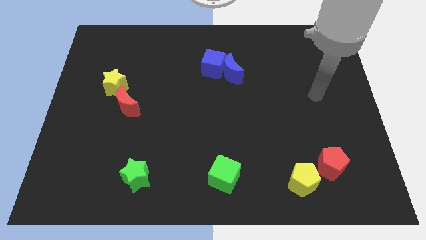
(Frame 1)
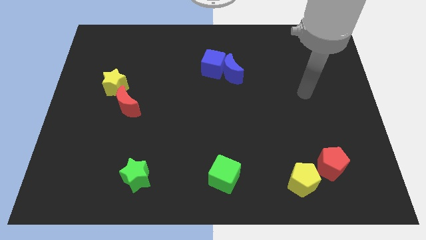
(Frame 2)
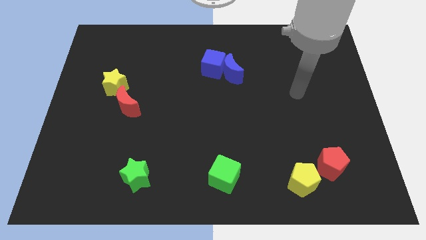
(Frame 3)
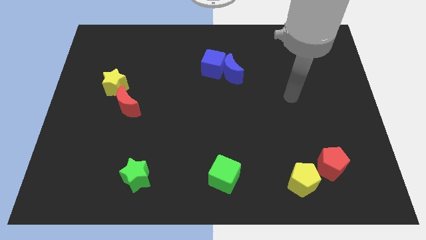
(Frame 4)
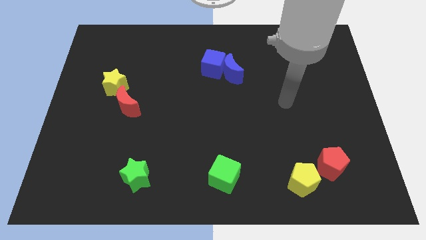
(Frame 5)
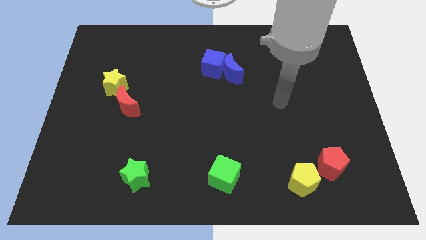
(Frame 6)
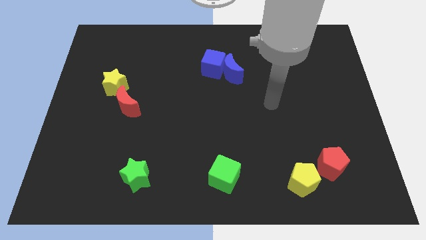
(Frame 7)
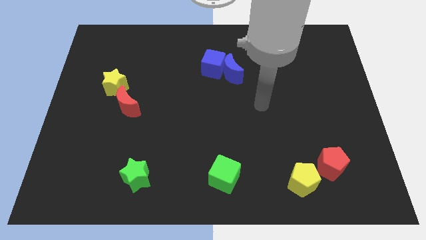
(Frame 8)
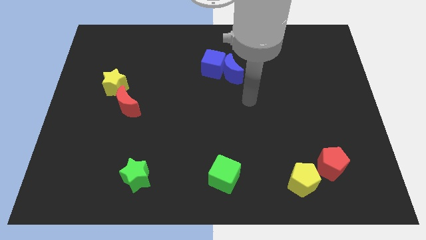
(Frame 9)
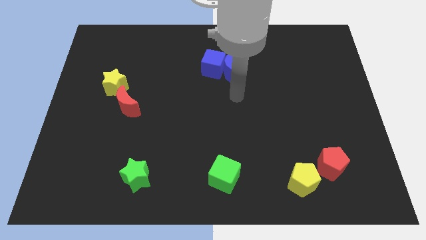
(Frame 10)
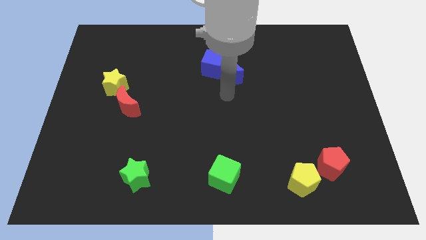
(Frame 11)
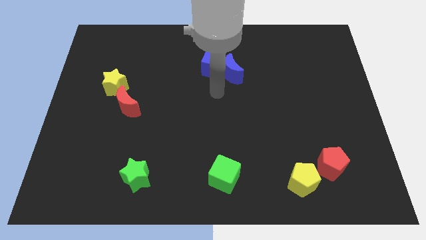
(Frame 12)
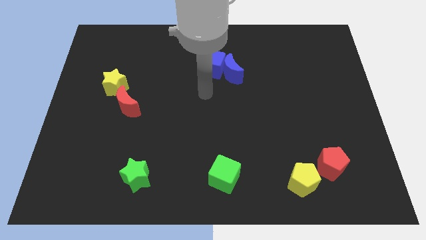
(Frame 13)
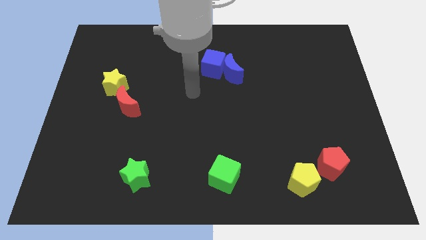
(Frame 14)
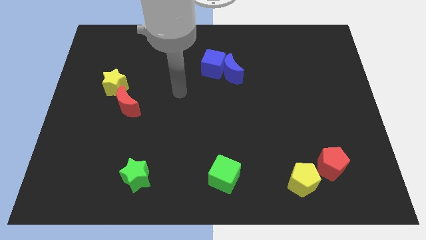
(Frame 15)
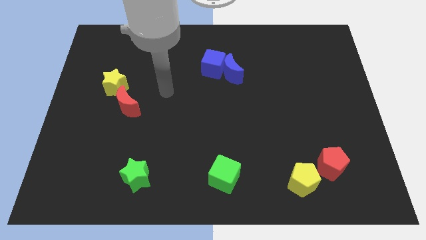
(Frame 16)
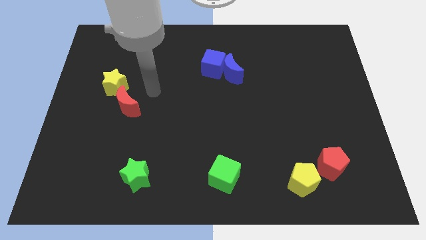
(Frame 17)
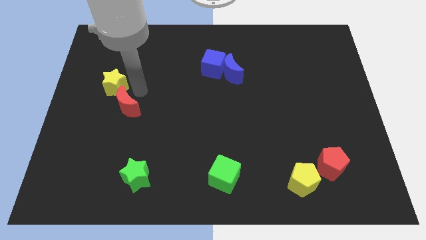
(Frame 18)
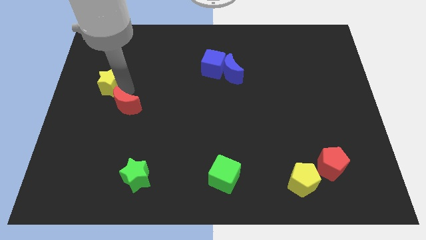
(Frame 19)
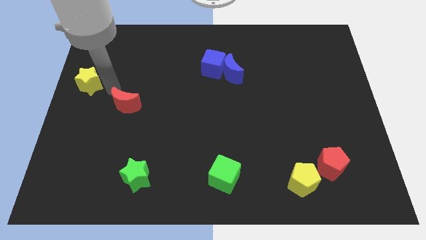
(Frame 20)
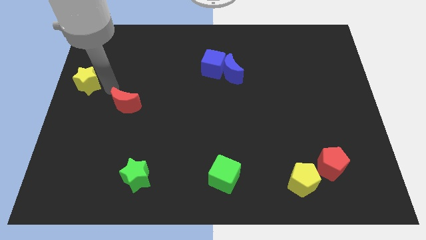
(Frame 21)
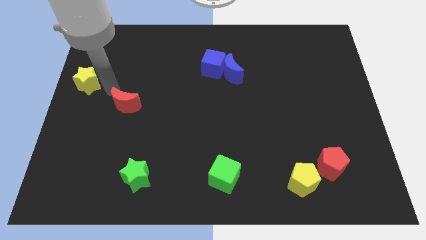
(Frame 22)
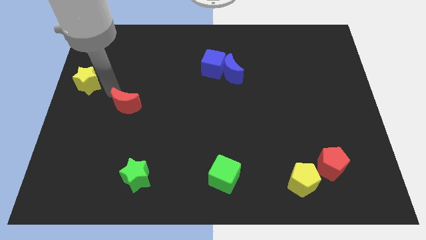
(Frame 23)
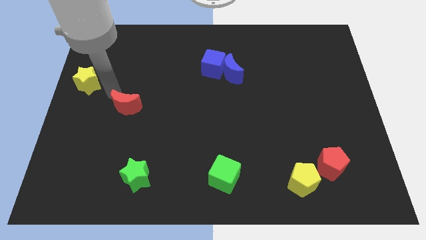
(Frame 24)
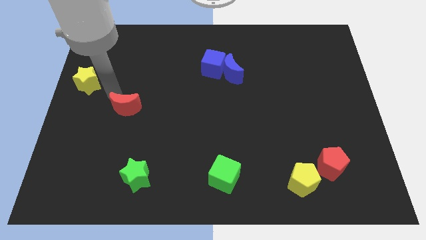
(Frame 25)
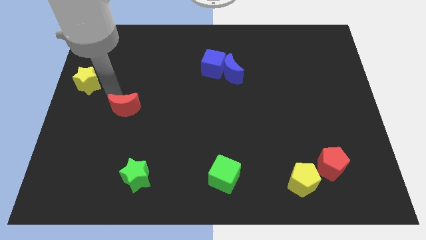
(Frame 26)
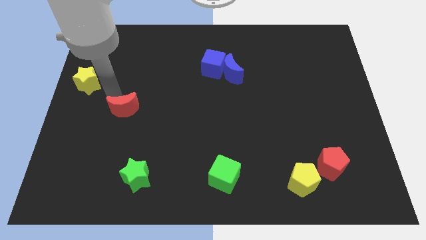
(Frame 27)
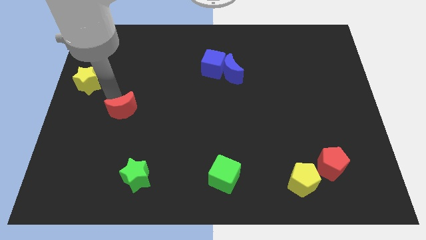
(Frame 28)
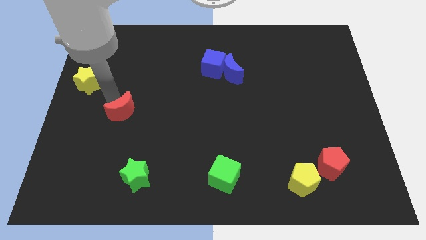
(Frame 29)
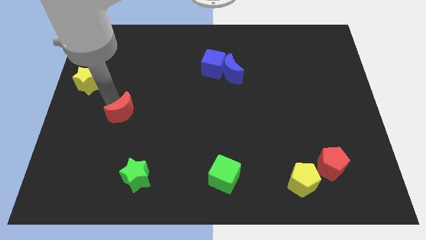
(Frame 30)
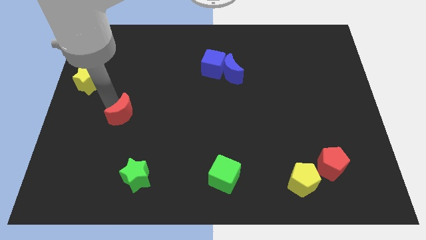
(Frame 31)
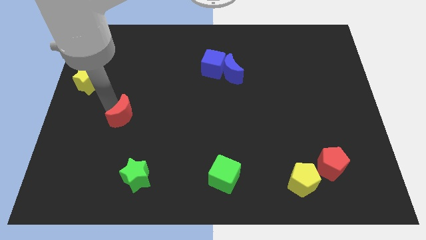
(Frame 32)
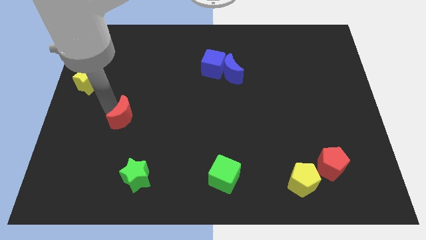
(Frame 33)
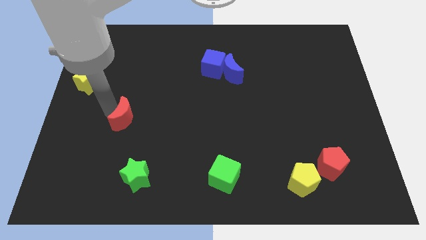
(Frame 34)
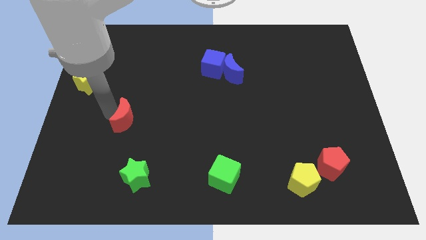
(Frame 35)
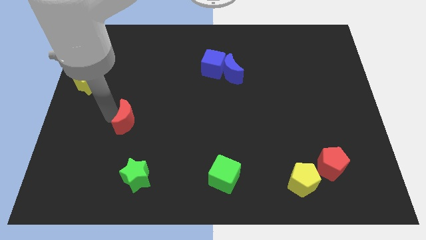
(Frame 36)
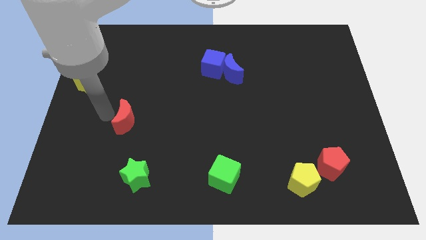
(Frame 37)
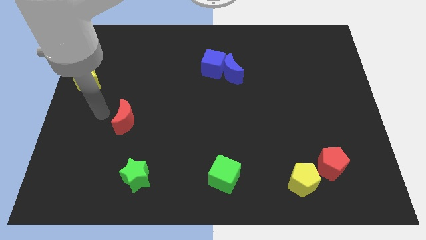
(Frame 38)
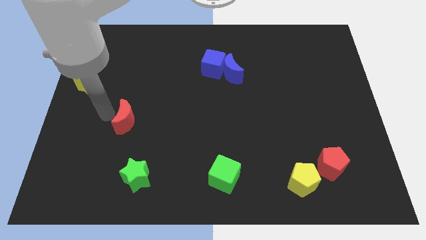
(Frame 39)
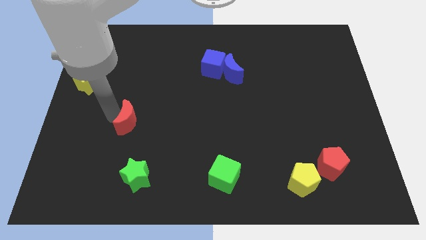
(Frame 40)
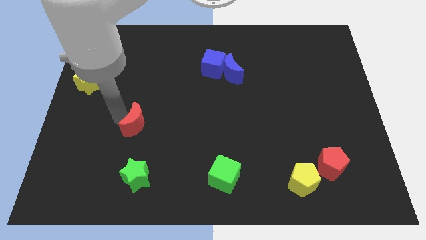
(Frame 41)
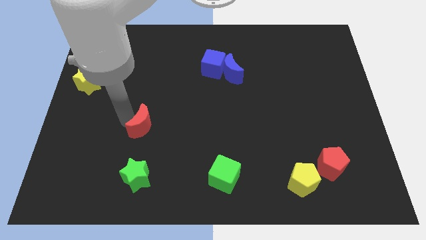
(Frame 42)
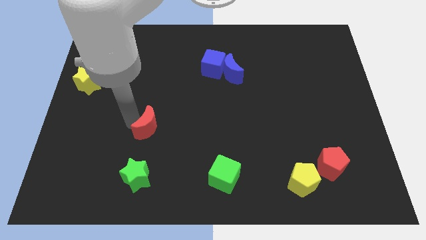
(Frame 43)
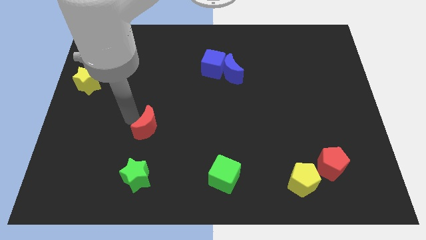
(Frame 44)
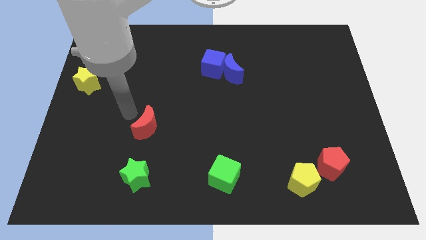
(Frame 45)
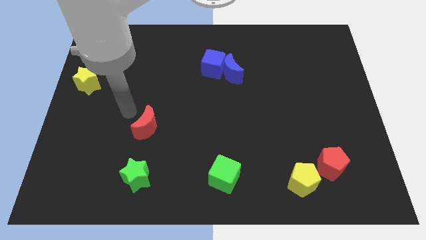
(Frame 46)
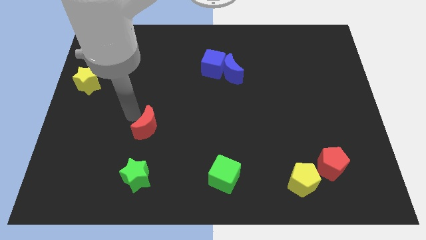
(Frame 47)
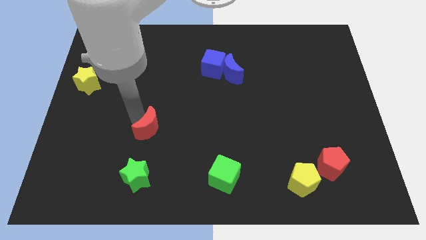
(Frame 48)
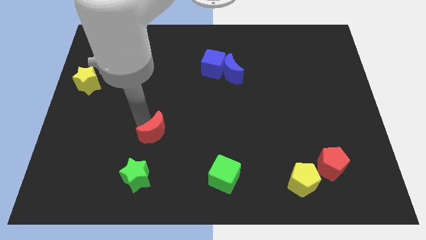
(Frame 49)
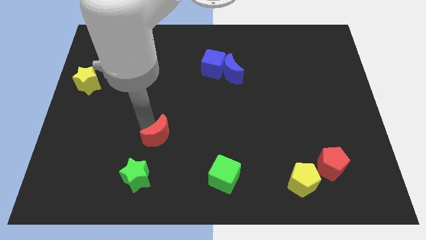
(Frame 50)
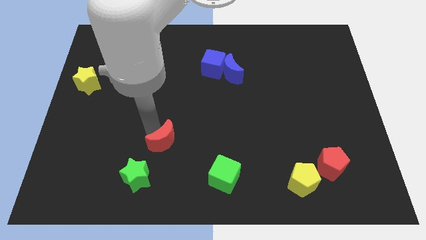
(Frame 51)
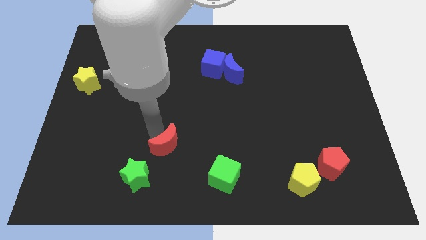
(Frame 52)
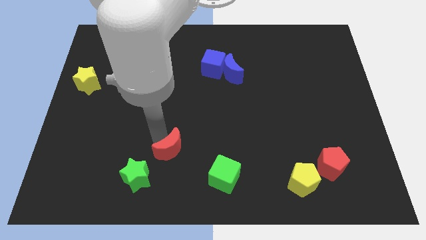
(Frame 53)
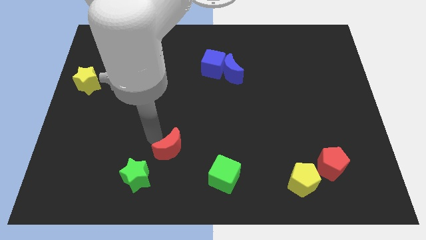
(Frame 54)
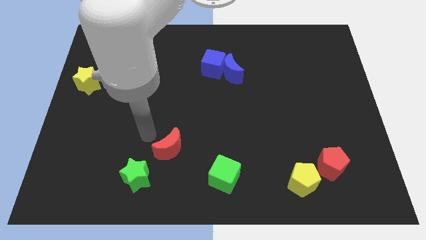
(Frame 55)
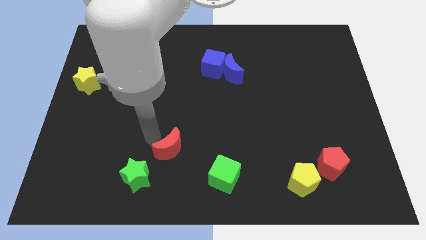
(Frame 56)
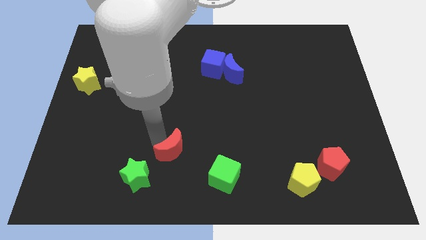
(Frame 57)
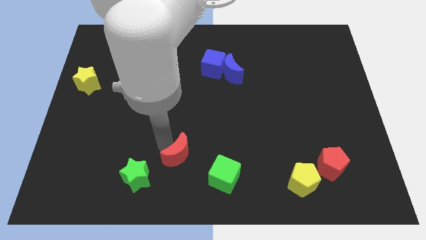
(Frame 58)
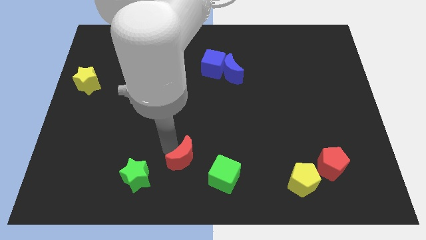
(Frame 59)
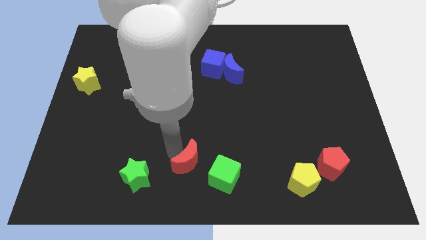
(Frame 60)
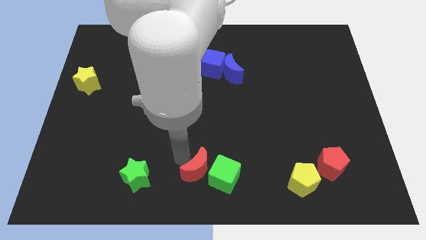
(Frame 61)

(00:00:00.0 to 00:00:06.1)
put the red moon close to the green cube

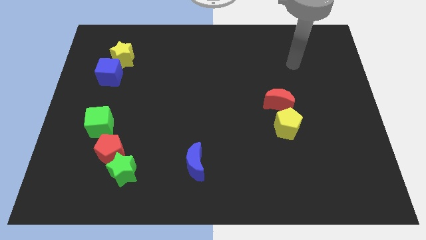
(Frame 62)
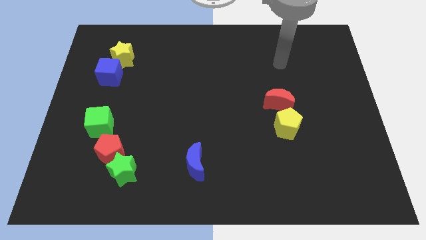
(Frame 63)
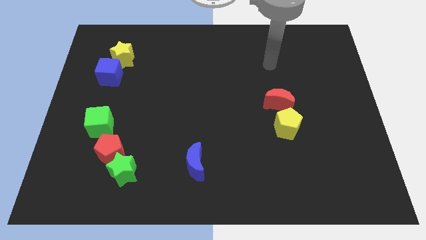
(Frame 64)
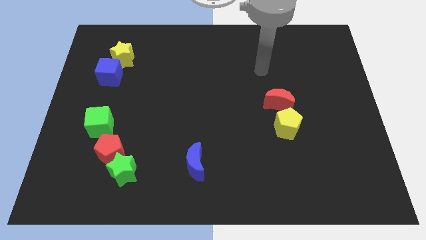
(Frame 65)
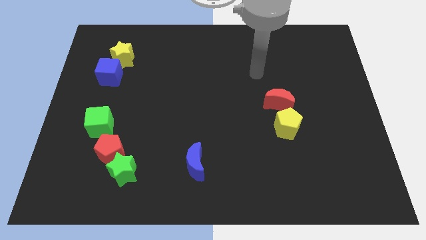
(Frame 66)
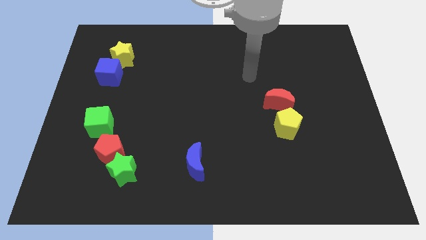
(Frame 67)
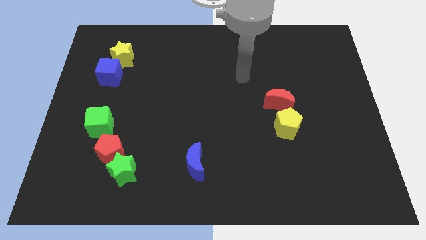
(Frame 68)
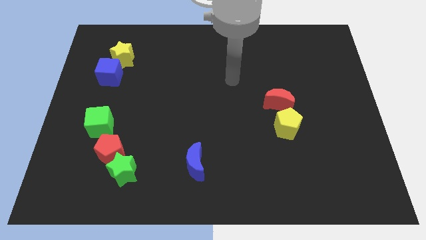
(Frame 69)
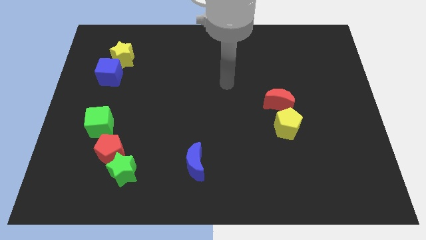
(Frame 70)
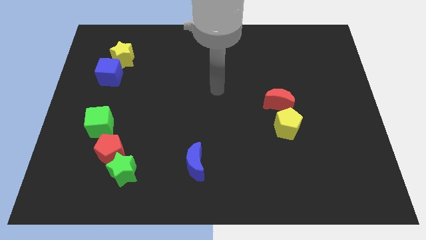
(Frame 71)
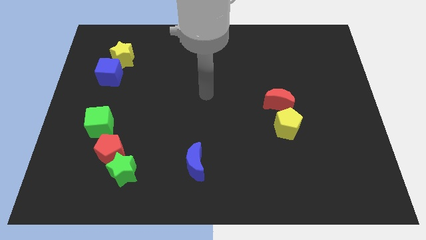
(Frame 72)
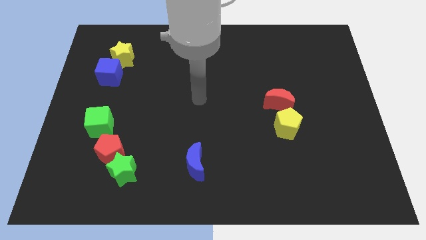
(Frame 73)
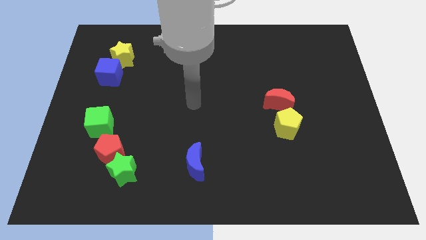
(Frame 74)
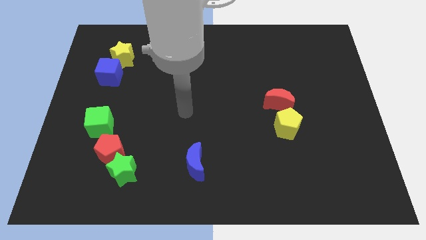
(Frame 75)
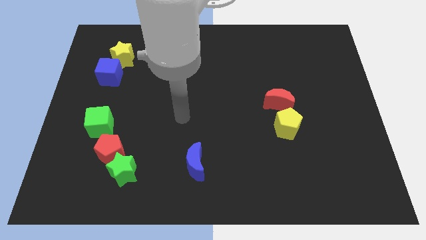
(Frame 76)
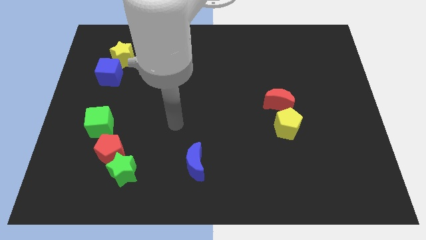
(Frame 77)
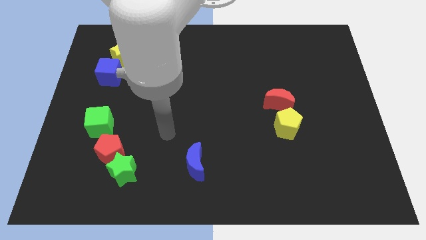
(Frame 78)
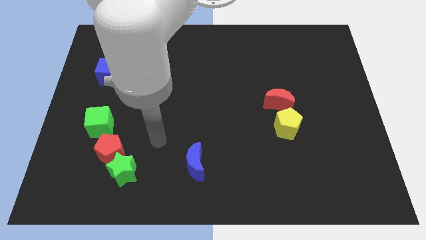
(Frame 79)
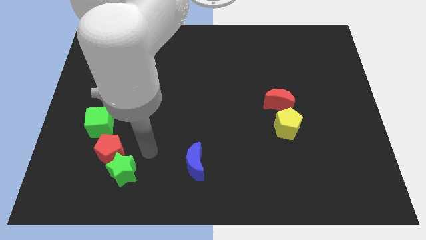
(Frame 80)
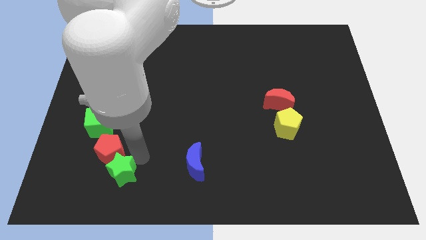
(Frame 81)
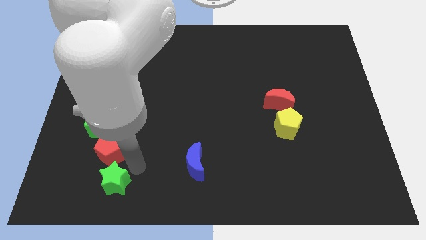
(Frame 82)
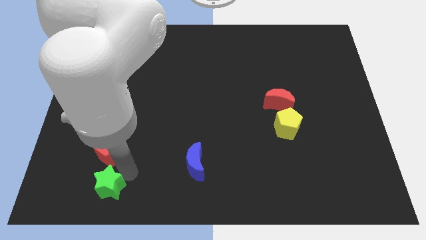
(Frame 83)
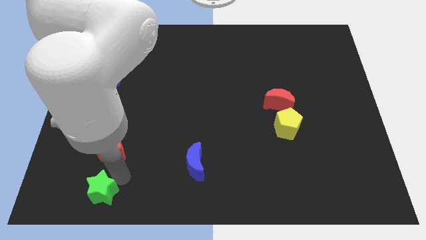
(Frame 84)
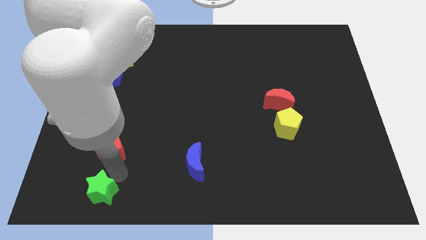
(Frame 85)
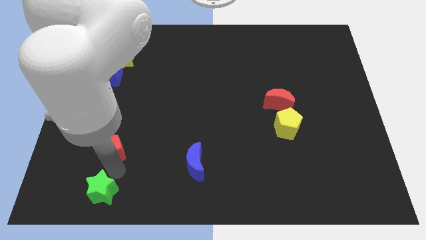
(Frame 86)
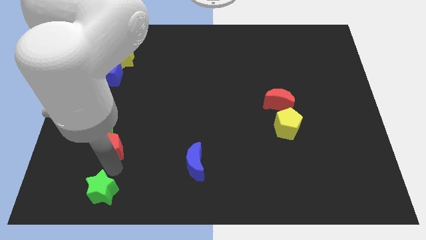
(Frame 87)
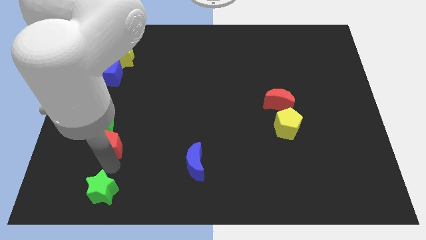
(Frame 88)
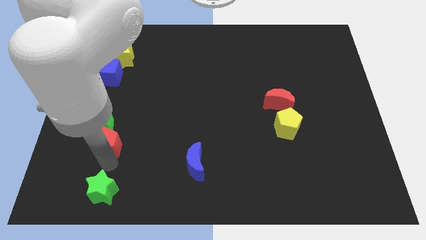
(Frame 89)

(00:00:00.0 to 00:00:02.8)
push the red pentagon to the green cube
